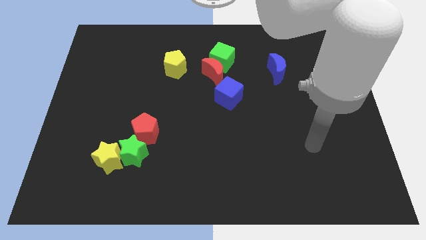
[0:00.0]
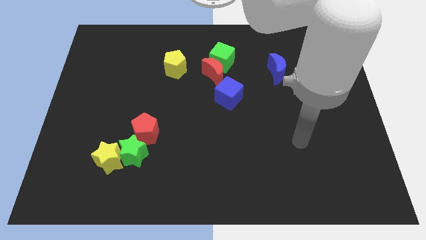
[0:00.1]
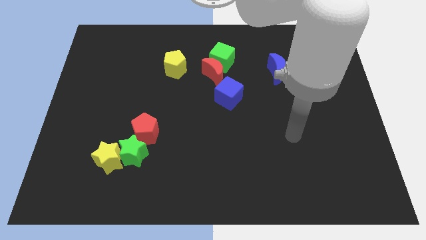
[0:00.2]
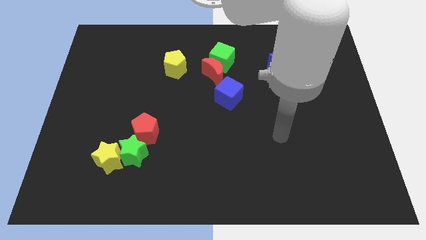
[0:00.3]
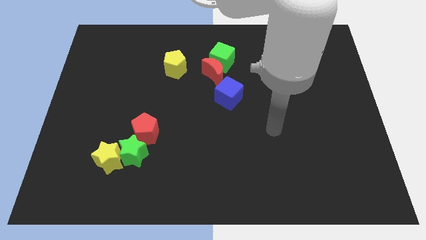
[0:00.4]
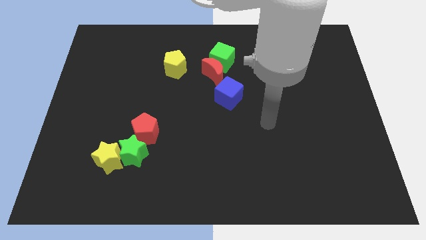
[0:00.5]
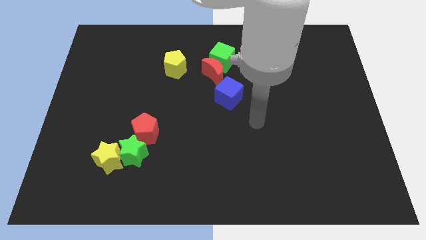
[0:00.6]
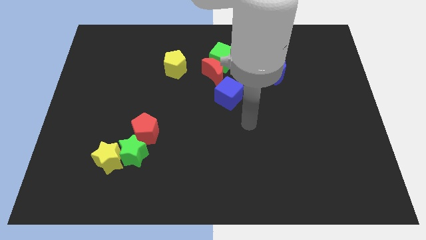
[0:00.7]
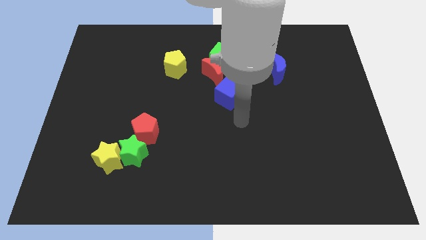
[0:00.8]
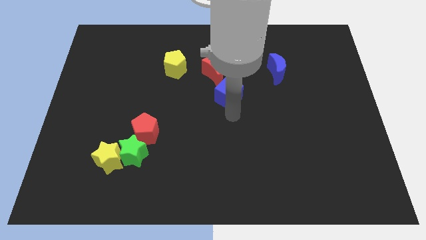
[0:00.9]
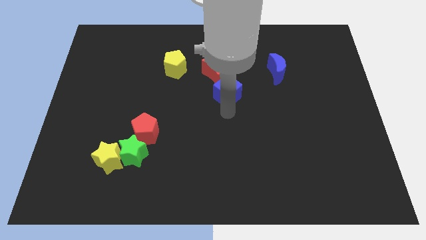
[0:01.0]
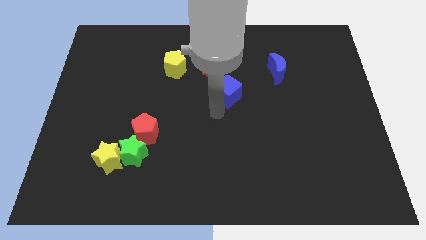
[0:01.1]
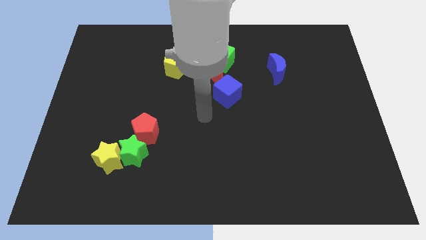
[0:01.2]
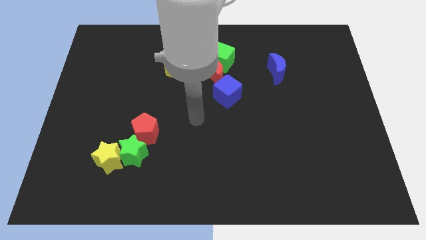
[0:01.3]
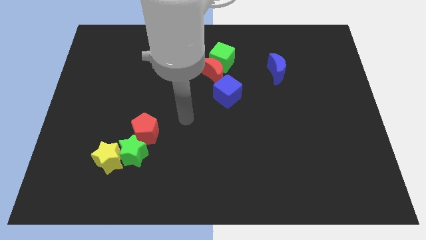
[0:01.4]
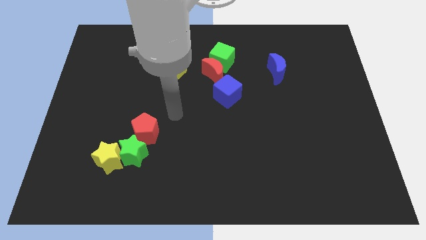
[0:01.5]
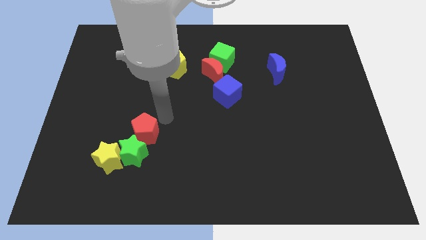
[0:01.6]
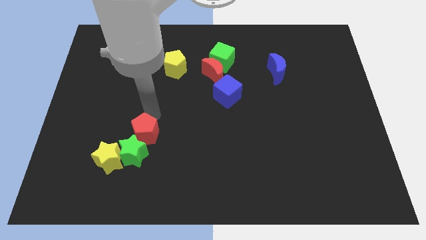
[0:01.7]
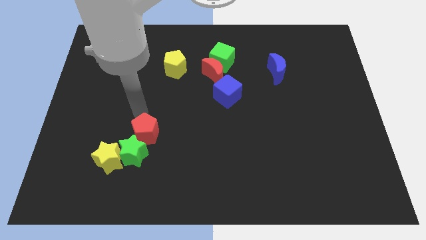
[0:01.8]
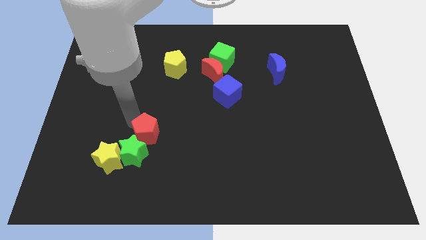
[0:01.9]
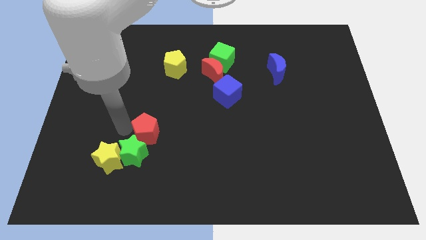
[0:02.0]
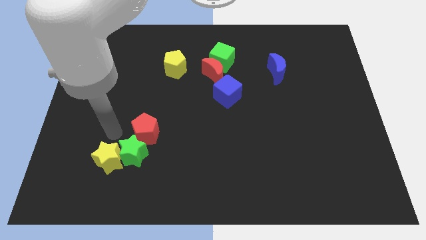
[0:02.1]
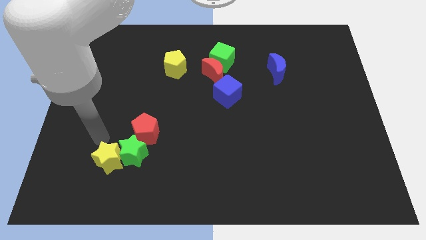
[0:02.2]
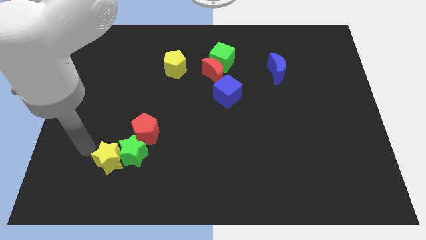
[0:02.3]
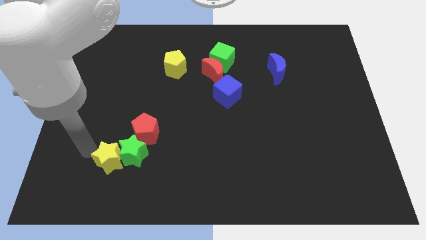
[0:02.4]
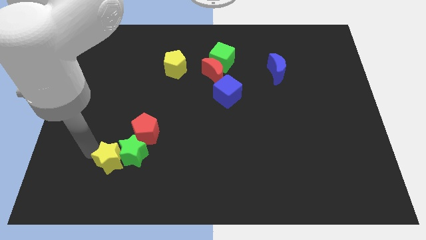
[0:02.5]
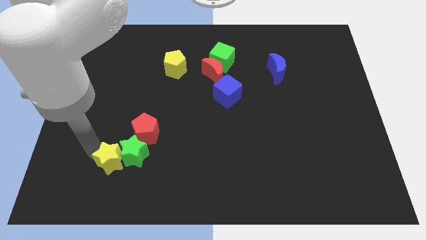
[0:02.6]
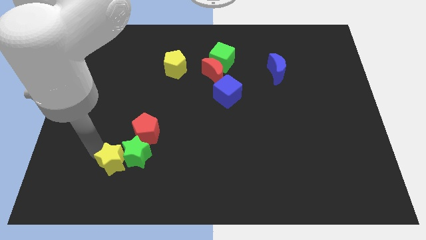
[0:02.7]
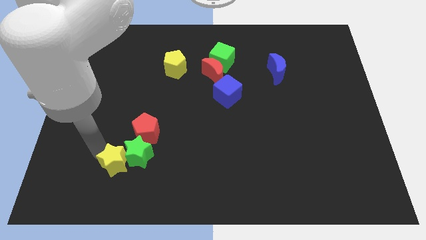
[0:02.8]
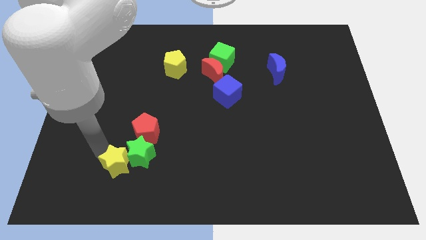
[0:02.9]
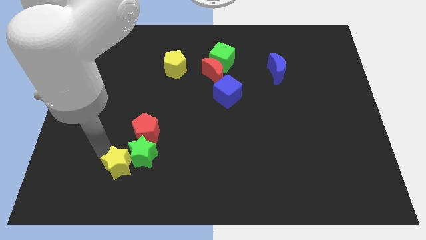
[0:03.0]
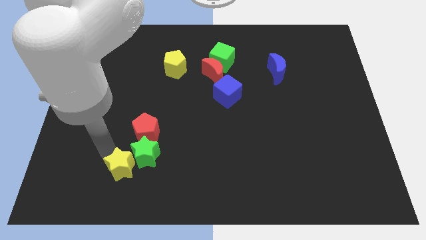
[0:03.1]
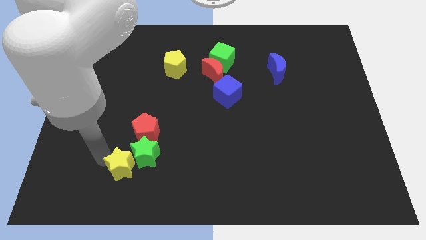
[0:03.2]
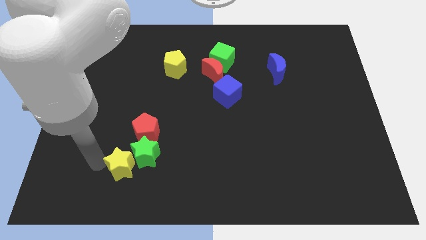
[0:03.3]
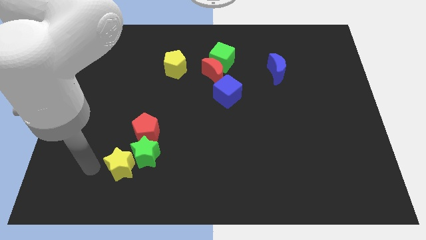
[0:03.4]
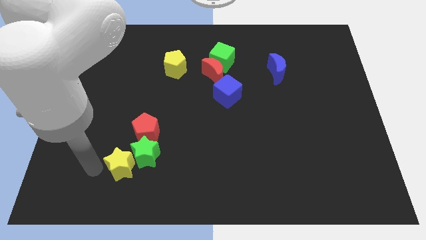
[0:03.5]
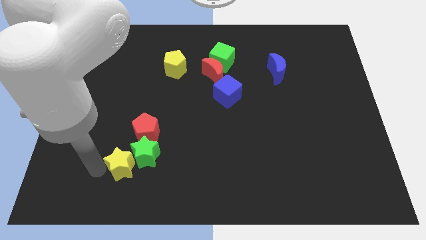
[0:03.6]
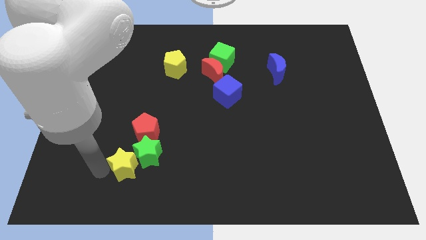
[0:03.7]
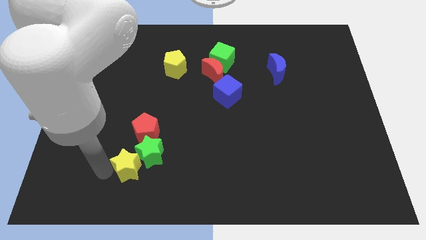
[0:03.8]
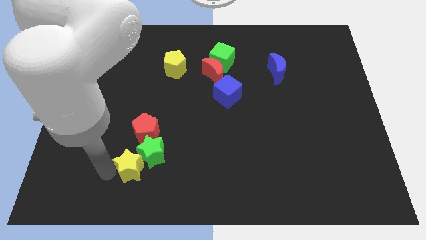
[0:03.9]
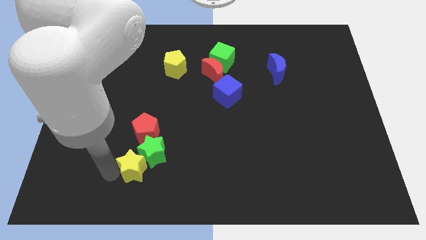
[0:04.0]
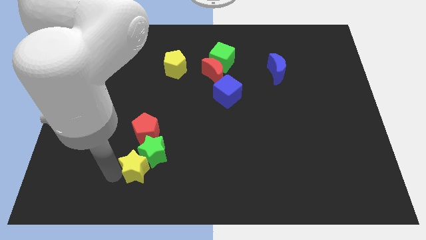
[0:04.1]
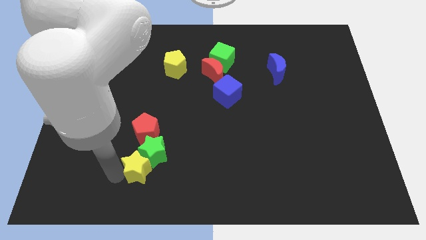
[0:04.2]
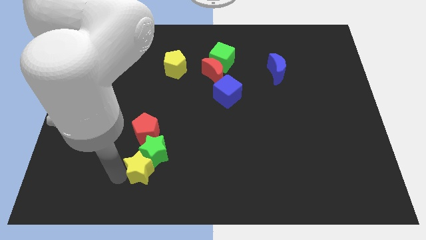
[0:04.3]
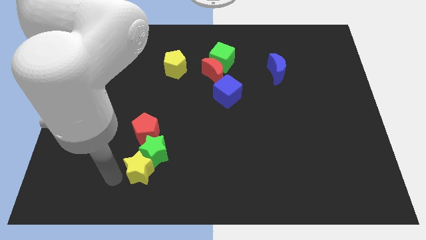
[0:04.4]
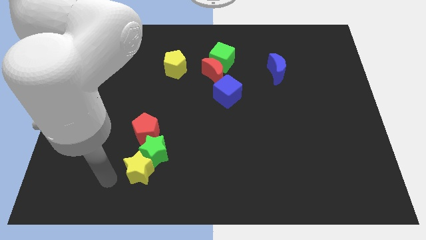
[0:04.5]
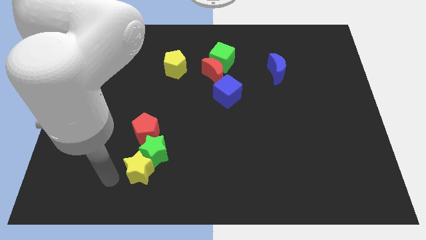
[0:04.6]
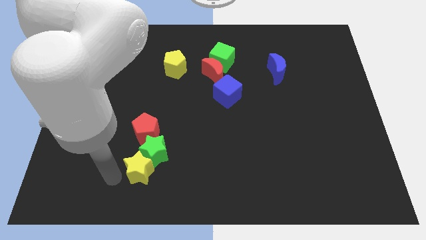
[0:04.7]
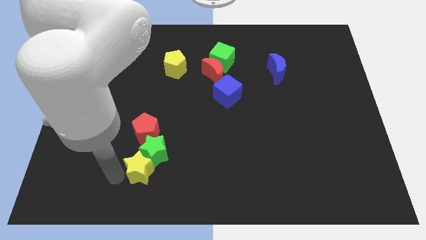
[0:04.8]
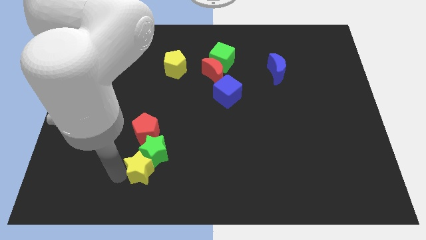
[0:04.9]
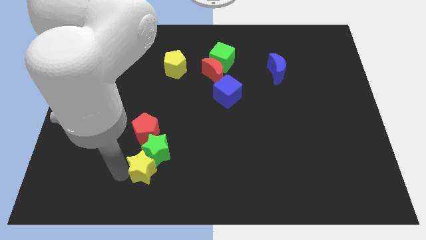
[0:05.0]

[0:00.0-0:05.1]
slightly move the yellow star to the right

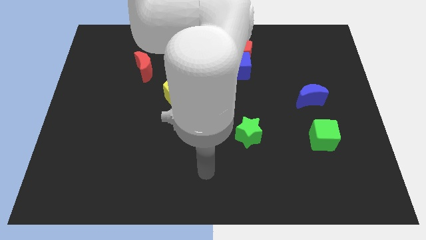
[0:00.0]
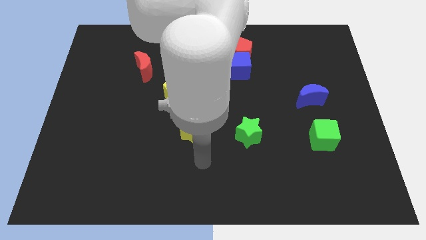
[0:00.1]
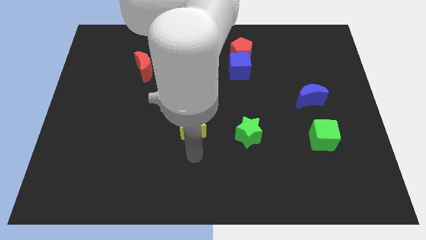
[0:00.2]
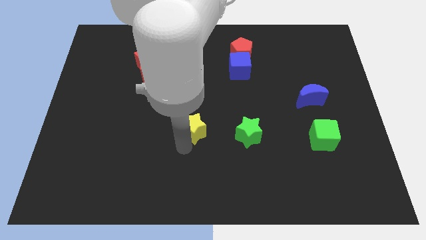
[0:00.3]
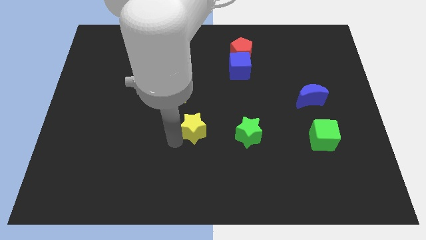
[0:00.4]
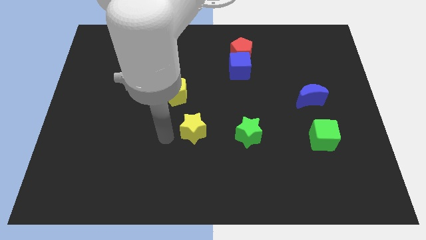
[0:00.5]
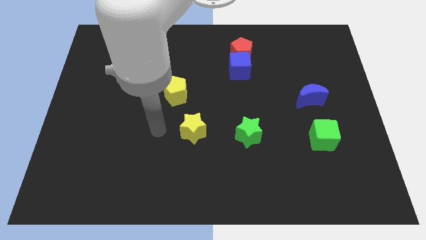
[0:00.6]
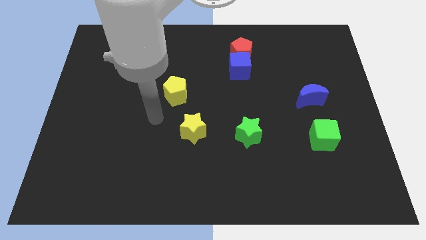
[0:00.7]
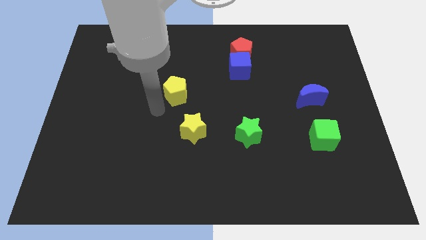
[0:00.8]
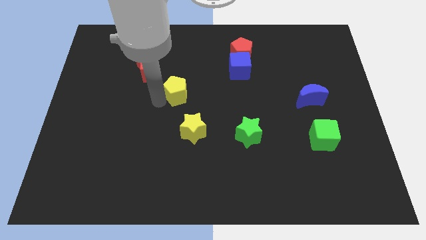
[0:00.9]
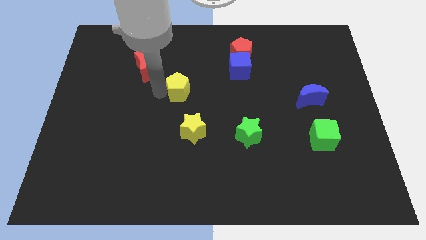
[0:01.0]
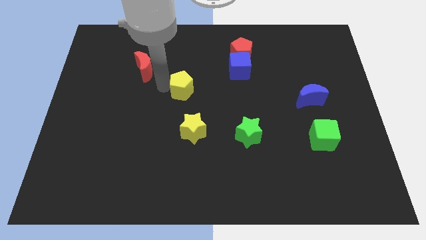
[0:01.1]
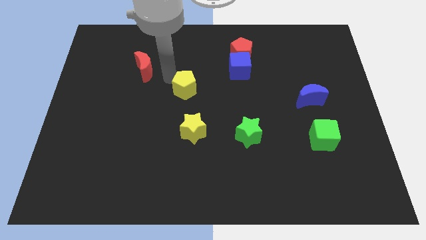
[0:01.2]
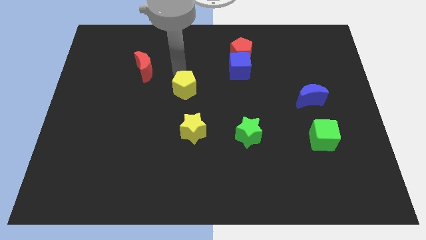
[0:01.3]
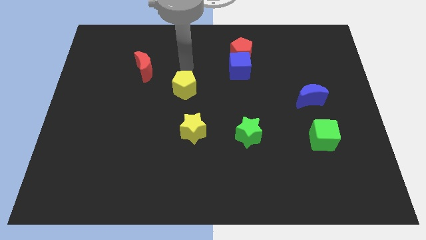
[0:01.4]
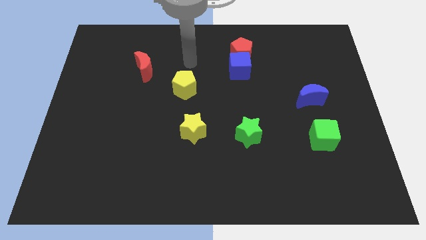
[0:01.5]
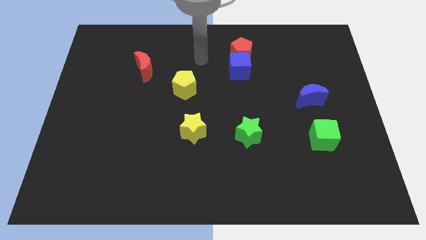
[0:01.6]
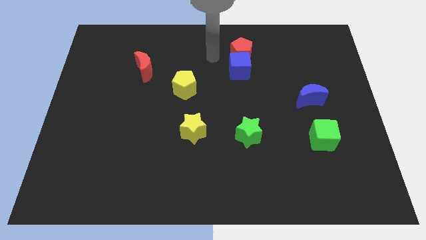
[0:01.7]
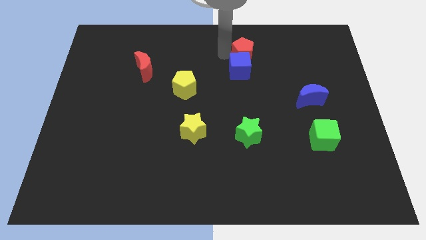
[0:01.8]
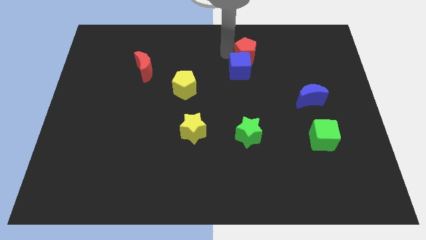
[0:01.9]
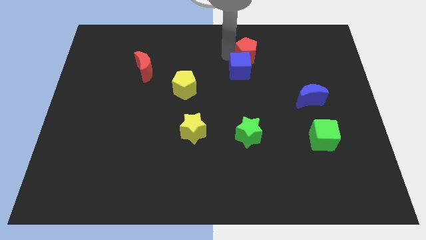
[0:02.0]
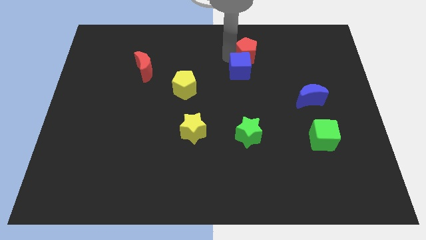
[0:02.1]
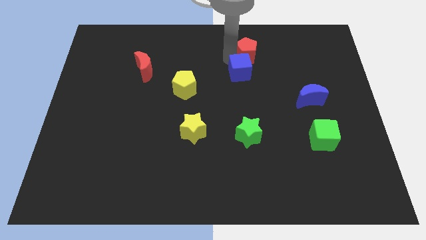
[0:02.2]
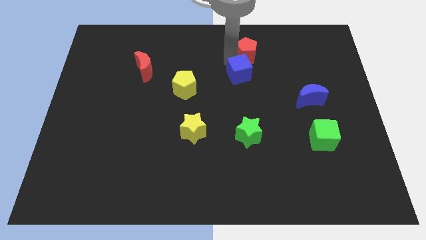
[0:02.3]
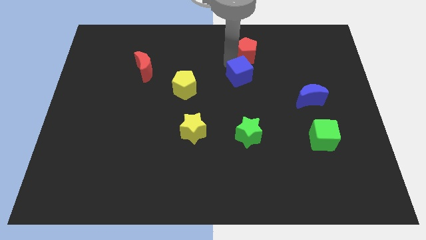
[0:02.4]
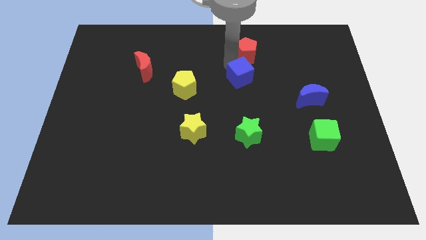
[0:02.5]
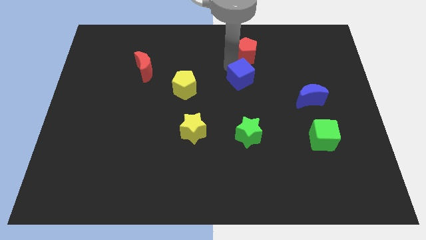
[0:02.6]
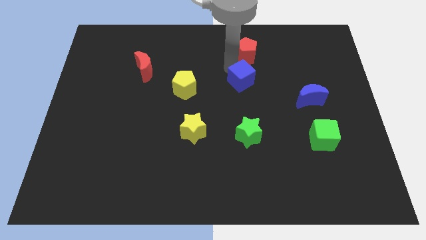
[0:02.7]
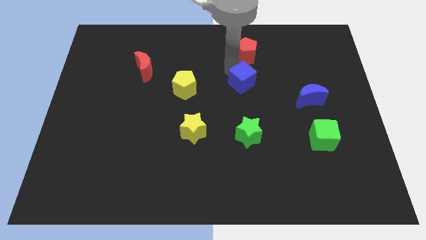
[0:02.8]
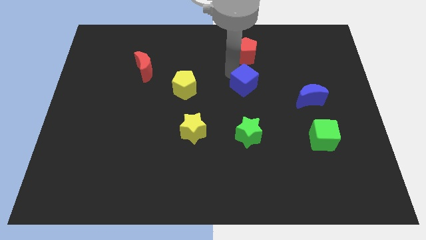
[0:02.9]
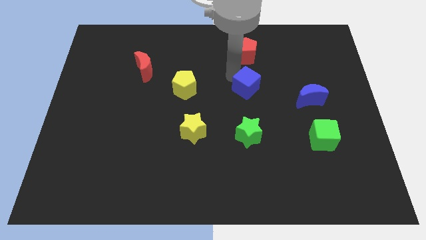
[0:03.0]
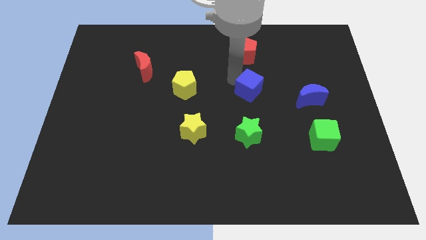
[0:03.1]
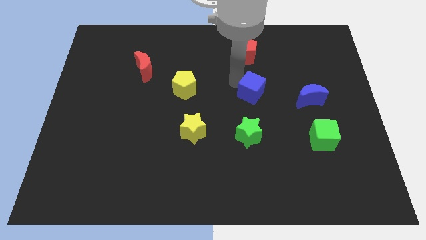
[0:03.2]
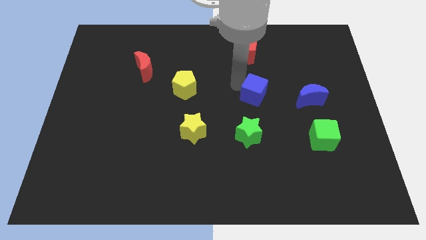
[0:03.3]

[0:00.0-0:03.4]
move the blue cube down and to the right diagonally a bit
